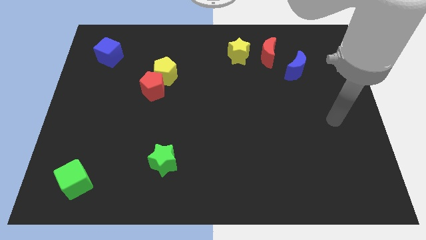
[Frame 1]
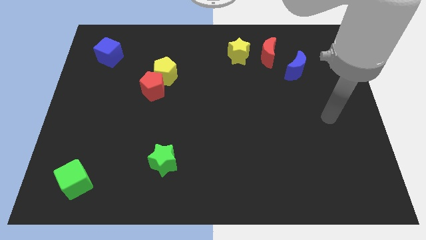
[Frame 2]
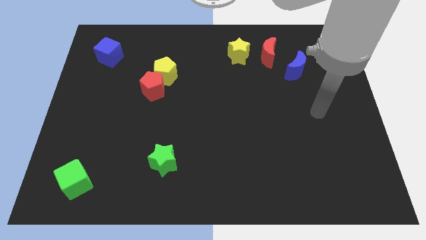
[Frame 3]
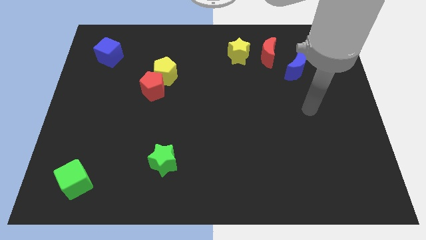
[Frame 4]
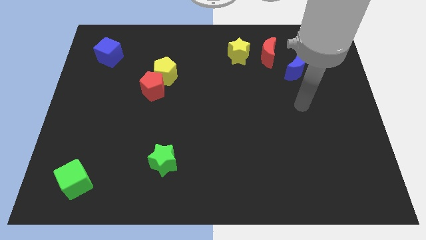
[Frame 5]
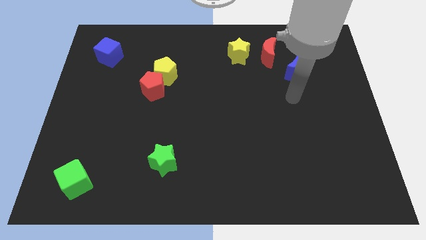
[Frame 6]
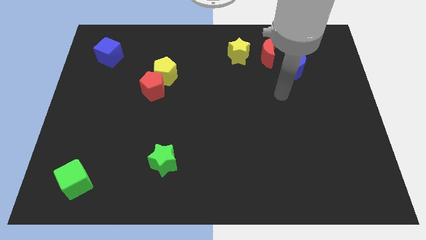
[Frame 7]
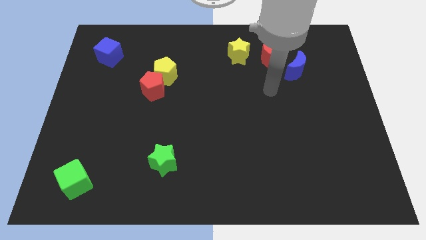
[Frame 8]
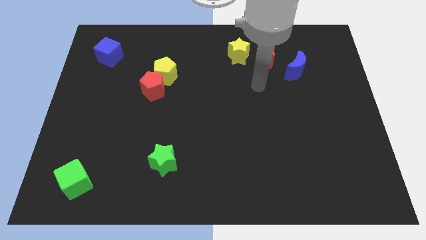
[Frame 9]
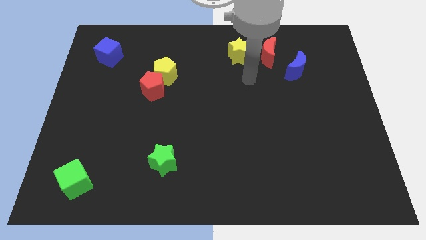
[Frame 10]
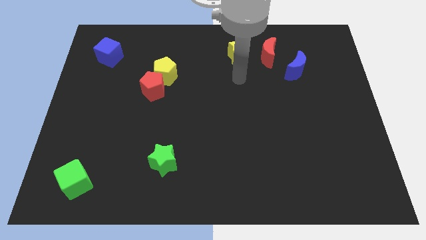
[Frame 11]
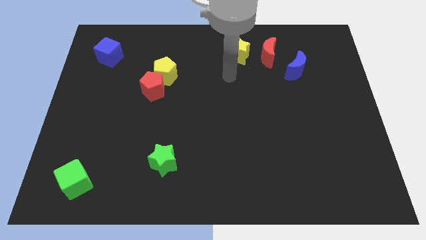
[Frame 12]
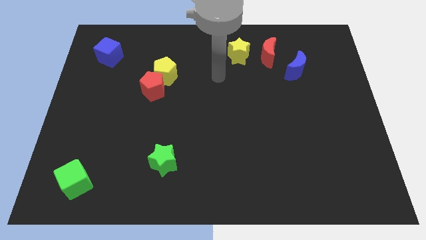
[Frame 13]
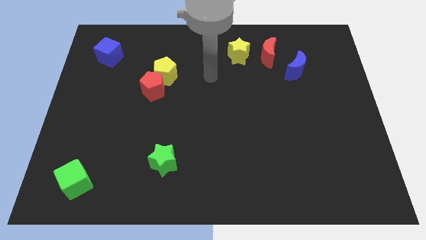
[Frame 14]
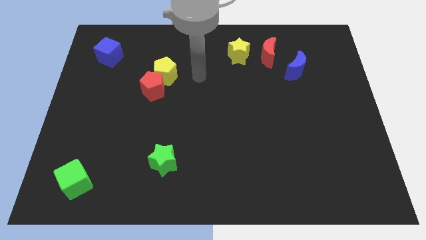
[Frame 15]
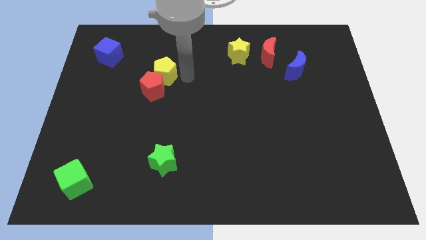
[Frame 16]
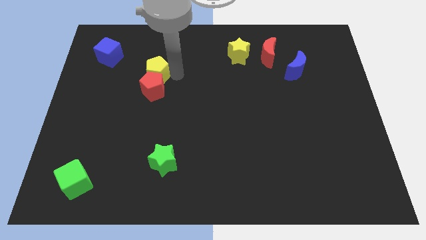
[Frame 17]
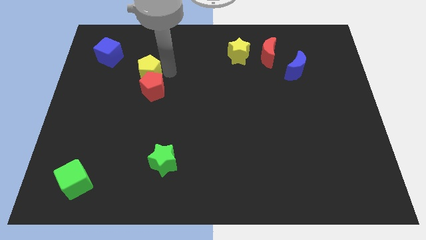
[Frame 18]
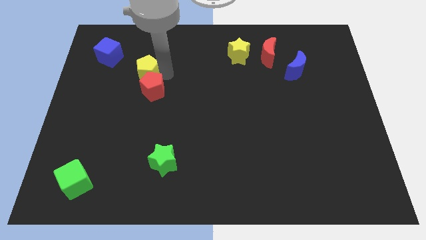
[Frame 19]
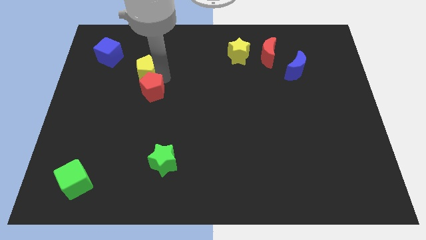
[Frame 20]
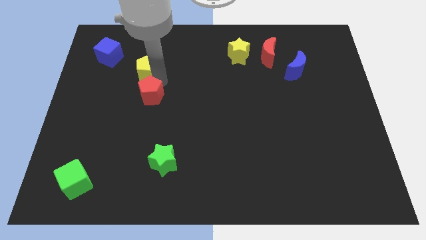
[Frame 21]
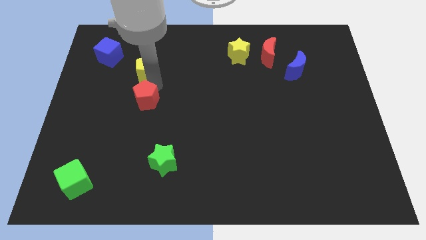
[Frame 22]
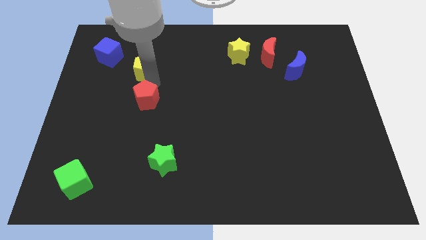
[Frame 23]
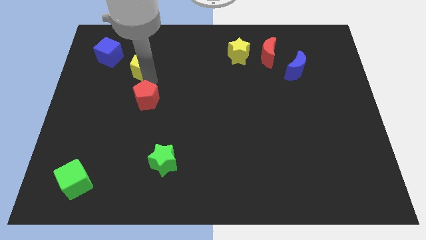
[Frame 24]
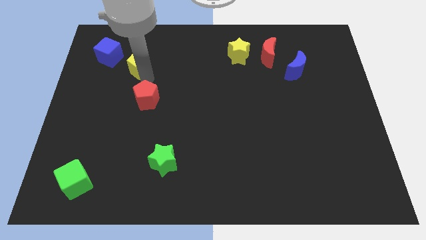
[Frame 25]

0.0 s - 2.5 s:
move the red pentagon away from the yellow pentagon

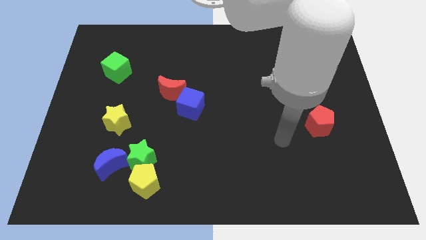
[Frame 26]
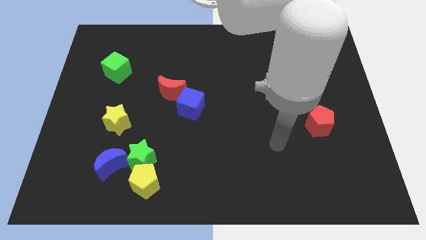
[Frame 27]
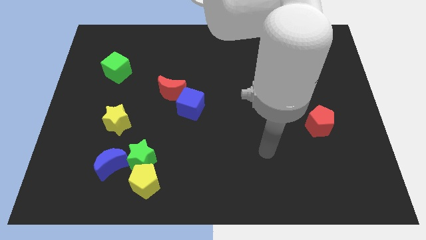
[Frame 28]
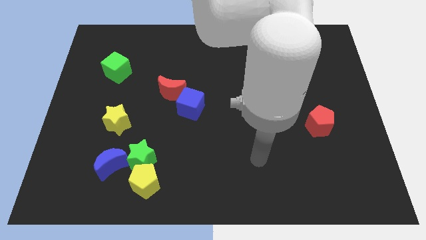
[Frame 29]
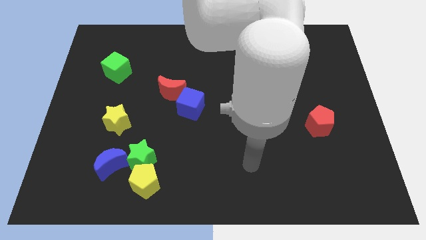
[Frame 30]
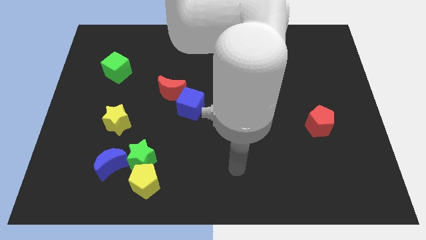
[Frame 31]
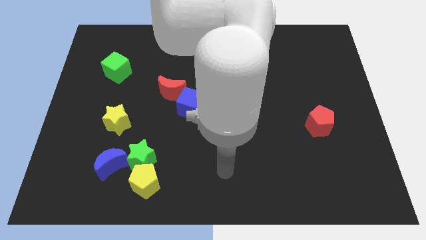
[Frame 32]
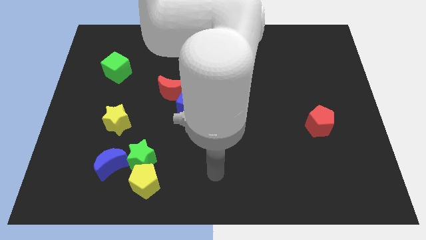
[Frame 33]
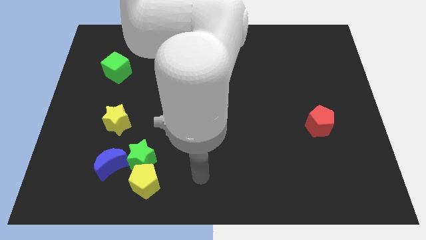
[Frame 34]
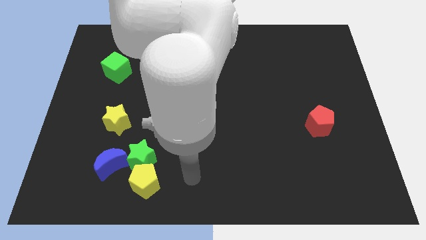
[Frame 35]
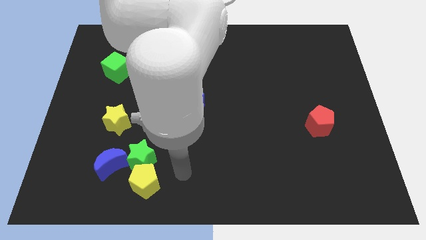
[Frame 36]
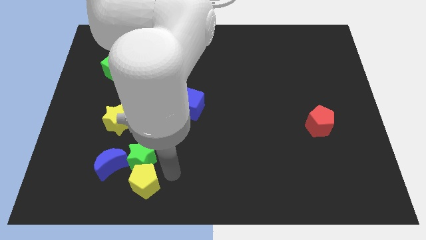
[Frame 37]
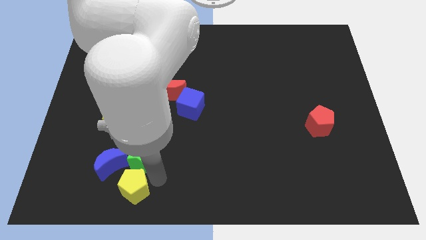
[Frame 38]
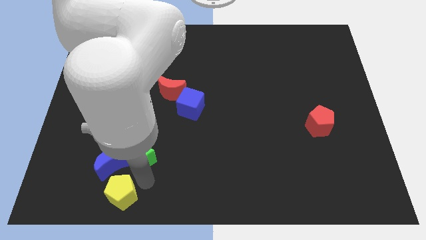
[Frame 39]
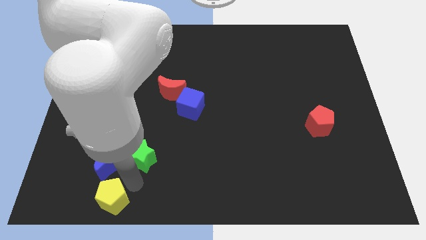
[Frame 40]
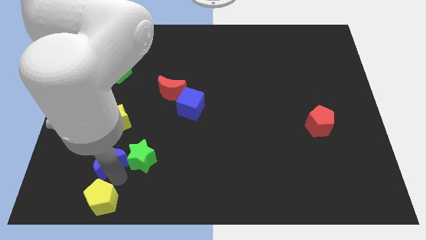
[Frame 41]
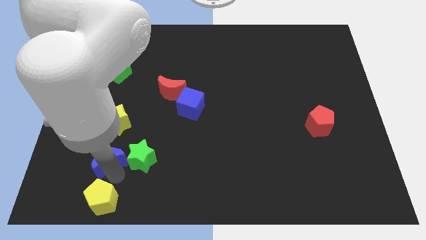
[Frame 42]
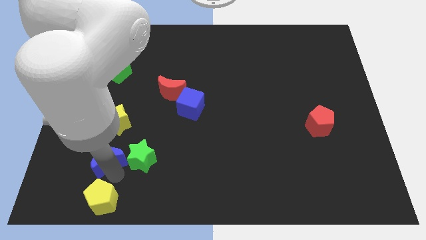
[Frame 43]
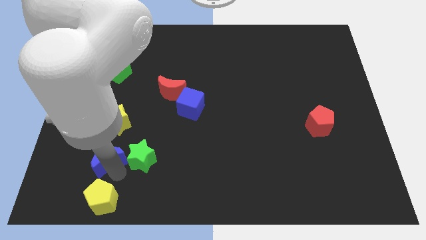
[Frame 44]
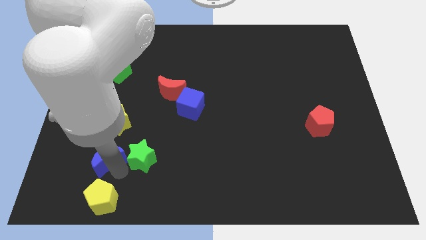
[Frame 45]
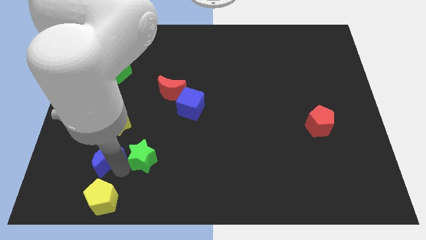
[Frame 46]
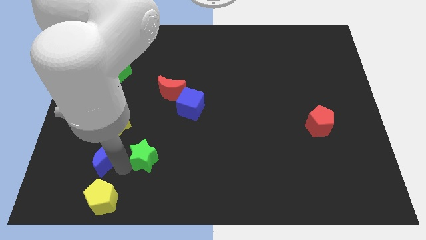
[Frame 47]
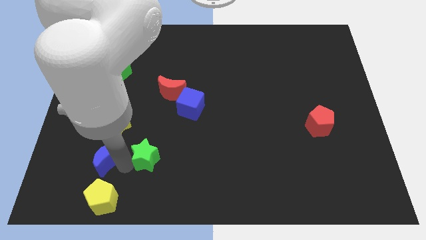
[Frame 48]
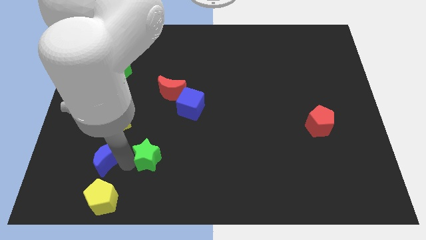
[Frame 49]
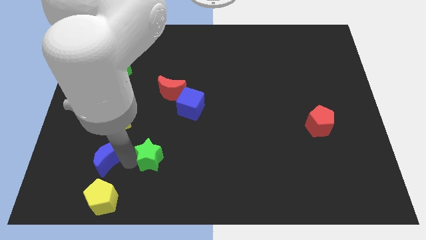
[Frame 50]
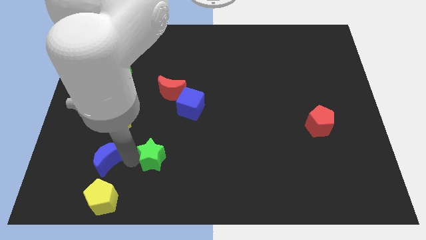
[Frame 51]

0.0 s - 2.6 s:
move the green star away from the yellow pentagon and blue moon

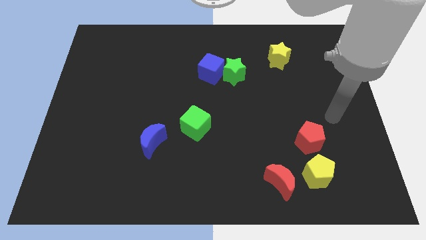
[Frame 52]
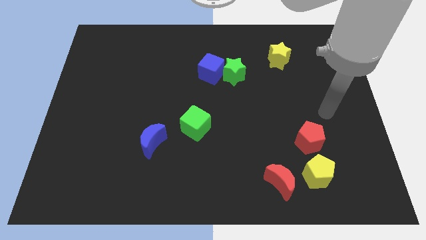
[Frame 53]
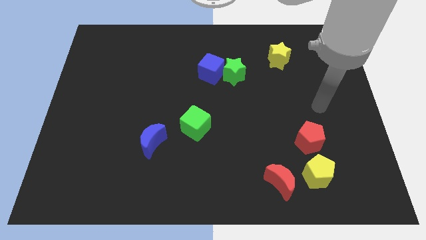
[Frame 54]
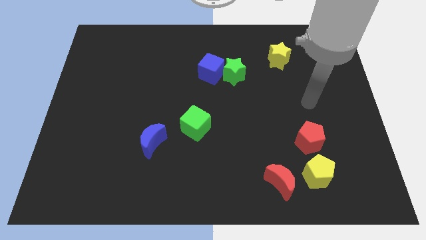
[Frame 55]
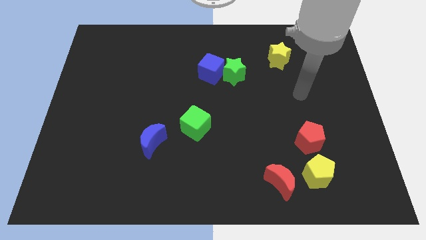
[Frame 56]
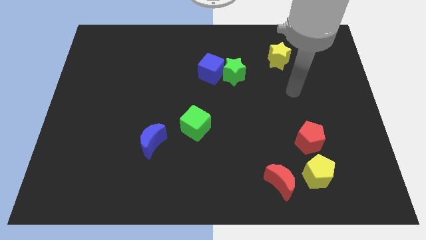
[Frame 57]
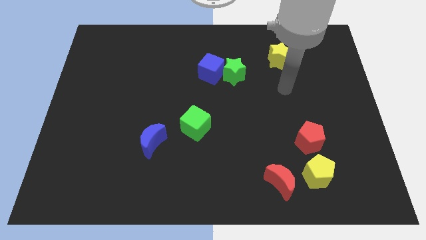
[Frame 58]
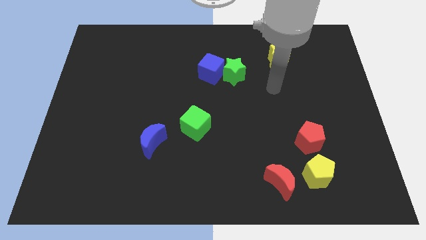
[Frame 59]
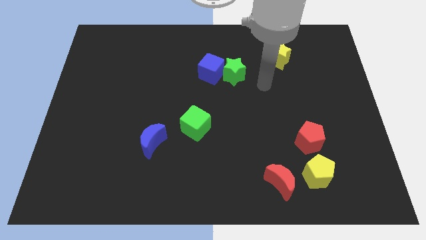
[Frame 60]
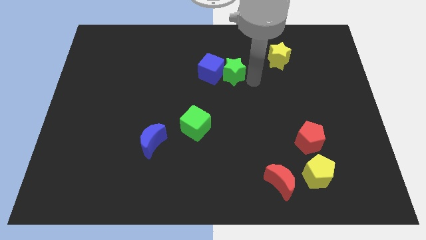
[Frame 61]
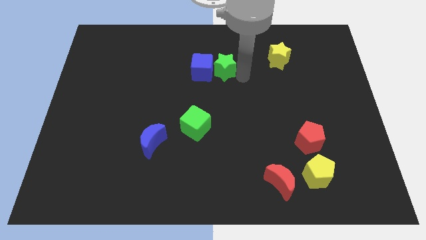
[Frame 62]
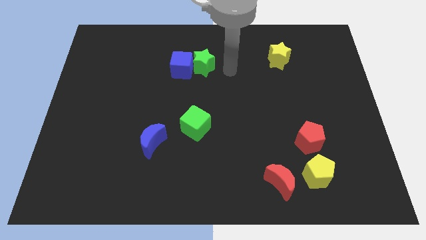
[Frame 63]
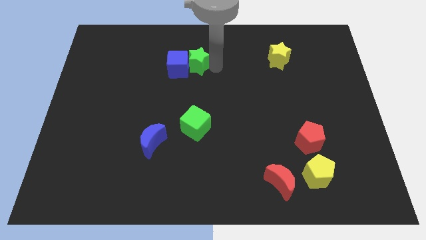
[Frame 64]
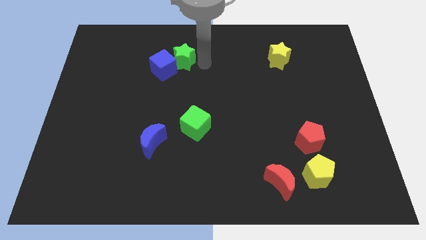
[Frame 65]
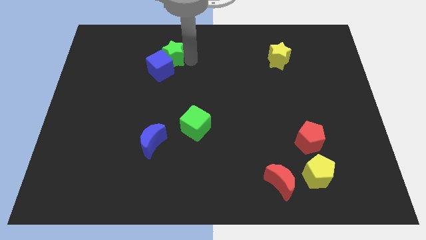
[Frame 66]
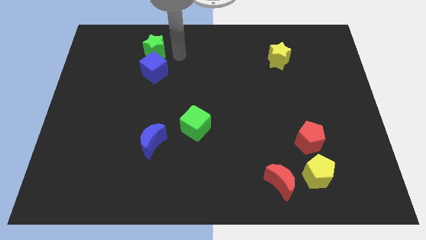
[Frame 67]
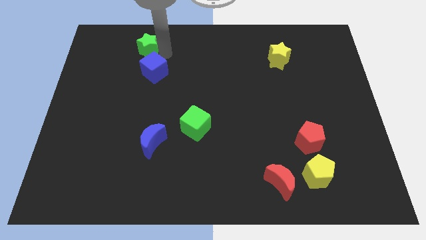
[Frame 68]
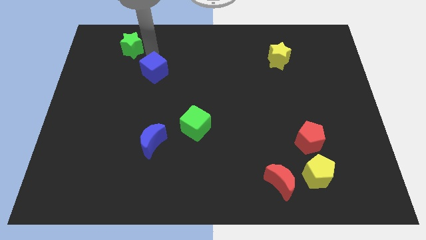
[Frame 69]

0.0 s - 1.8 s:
pull the blue cube apart from the green star

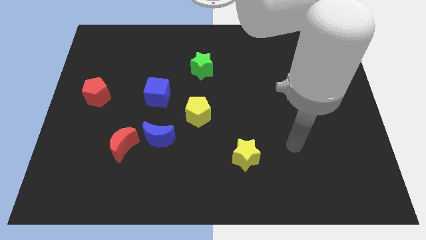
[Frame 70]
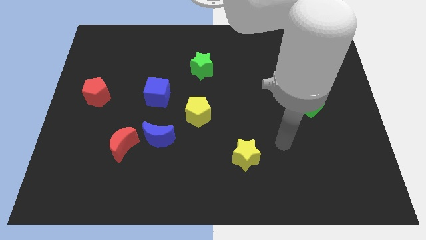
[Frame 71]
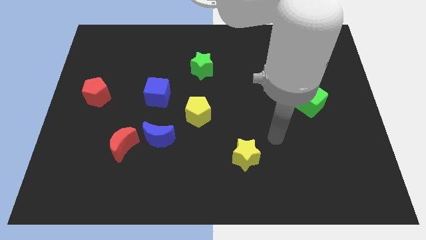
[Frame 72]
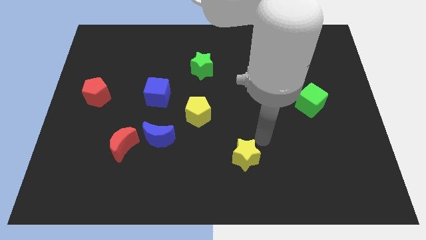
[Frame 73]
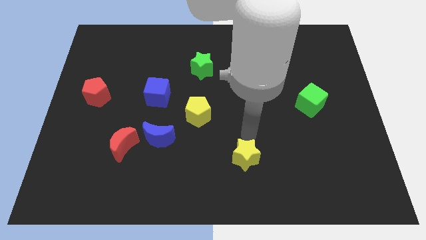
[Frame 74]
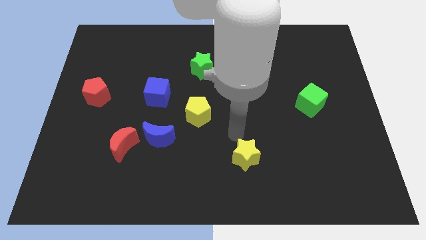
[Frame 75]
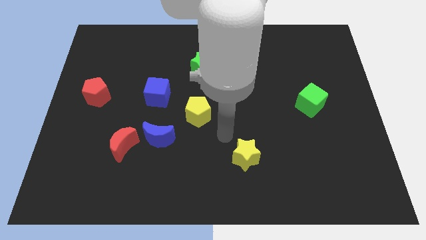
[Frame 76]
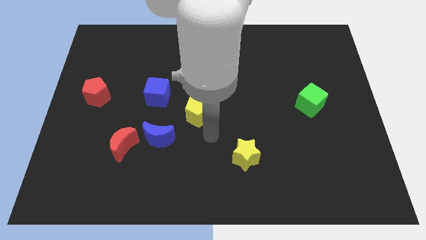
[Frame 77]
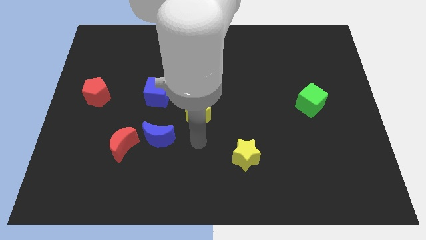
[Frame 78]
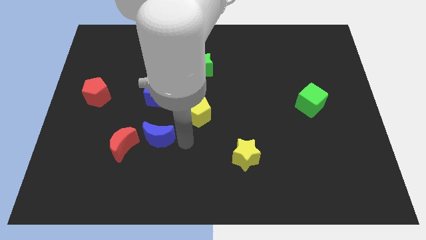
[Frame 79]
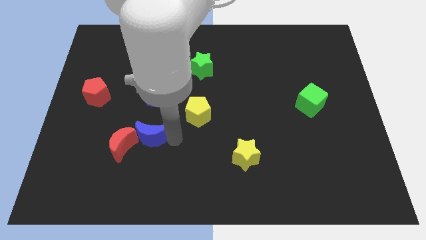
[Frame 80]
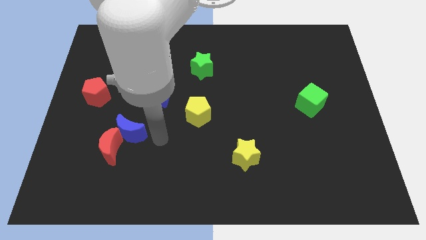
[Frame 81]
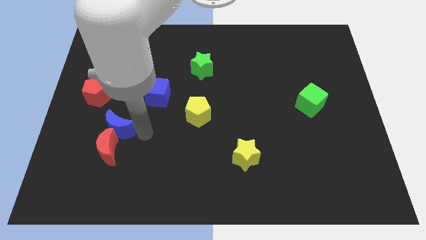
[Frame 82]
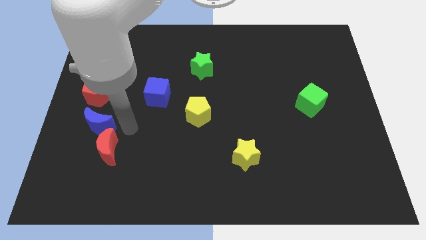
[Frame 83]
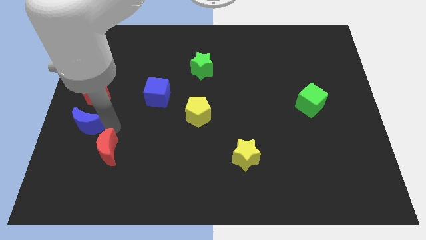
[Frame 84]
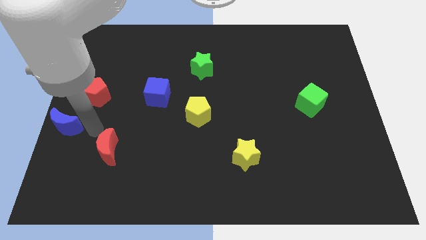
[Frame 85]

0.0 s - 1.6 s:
move the red moon away from the blue moon

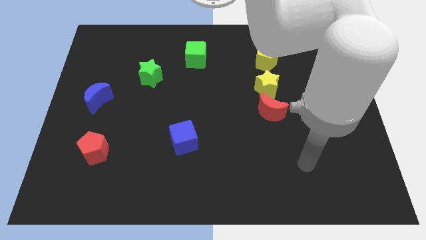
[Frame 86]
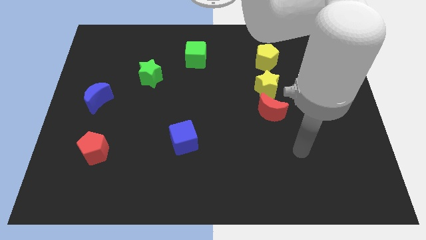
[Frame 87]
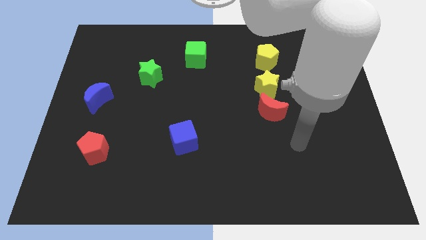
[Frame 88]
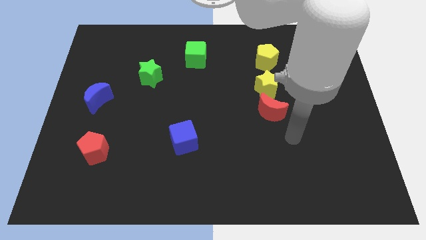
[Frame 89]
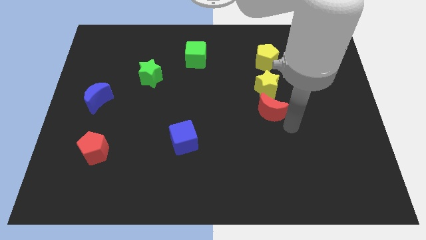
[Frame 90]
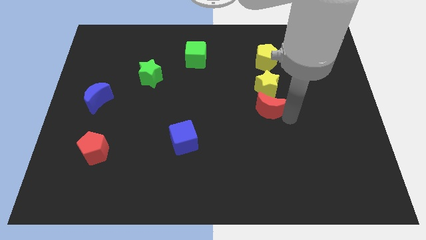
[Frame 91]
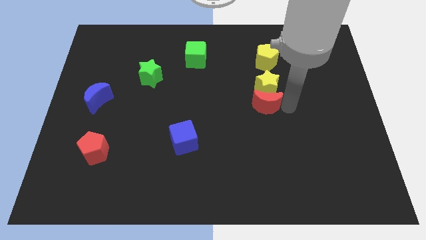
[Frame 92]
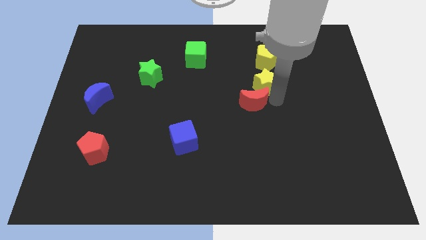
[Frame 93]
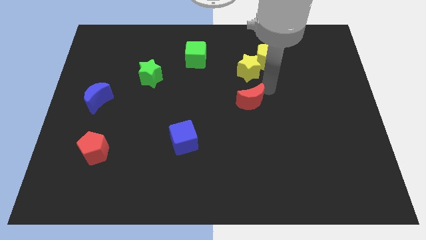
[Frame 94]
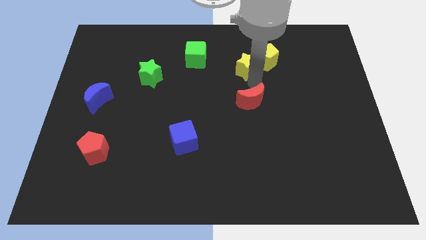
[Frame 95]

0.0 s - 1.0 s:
separate the red moon from the yellow star

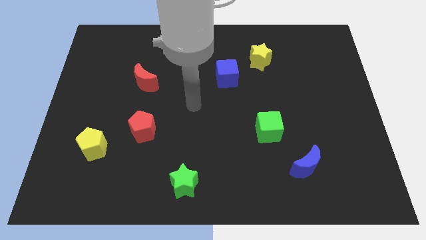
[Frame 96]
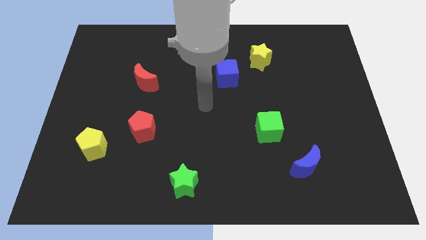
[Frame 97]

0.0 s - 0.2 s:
pull the blue cube apart from the yellow star
